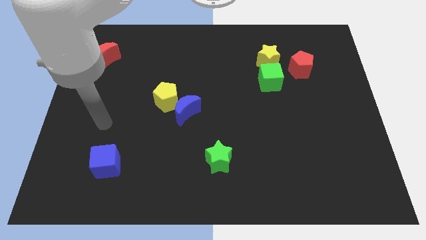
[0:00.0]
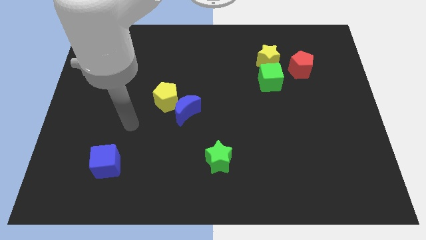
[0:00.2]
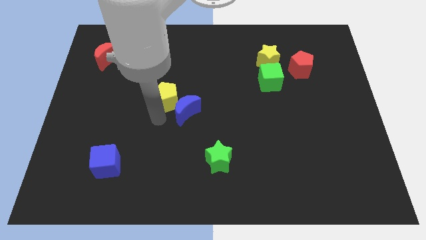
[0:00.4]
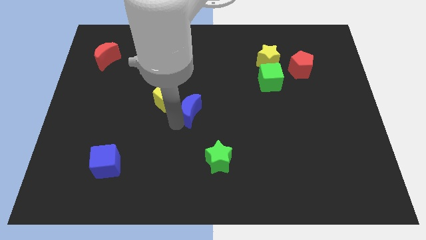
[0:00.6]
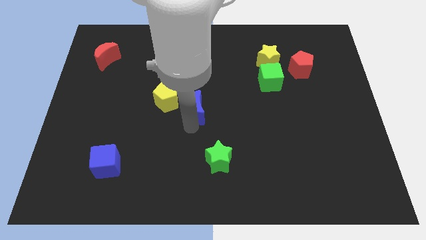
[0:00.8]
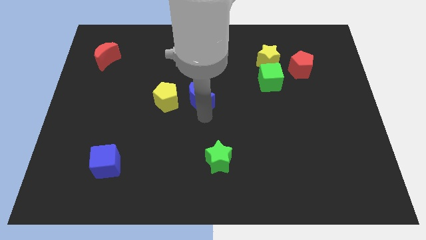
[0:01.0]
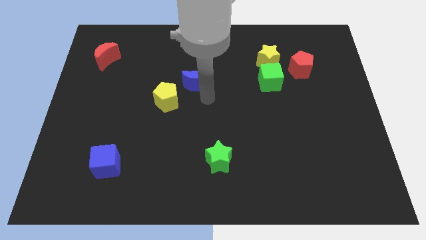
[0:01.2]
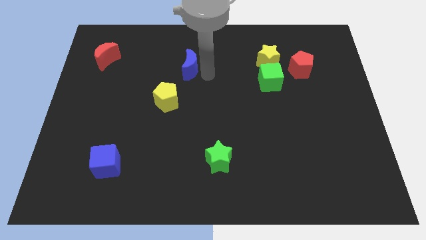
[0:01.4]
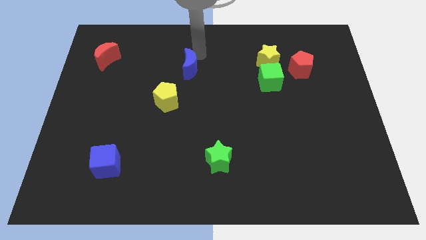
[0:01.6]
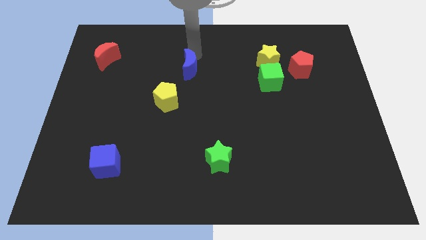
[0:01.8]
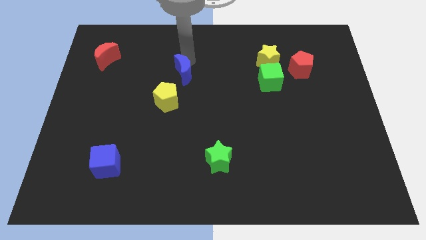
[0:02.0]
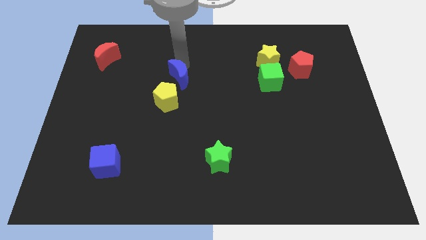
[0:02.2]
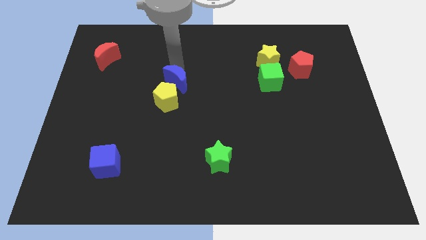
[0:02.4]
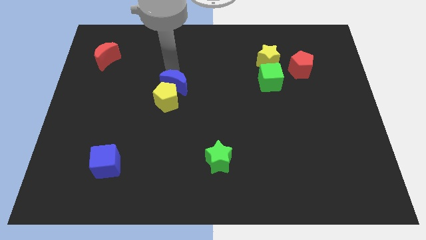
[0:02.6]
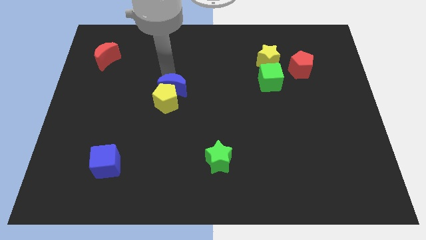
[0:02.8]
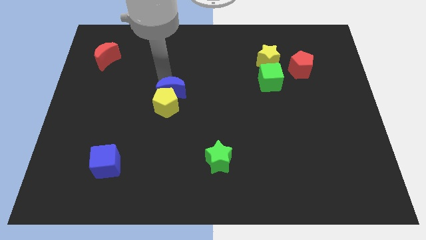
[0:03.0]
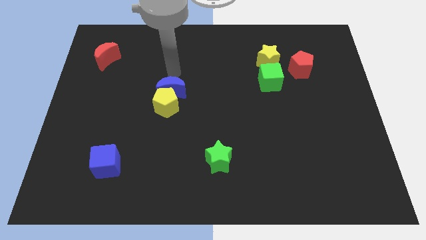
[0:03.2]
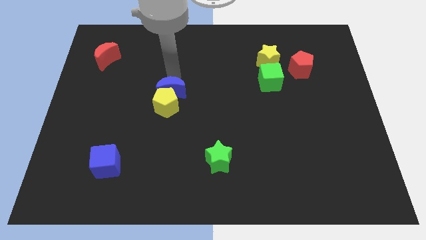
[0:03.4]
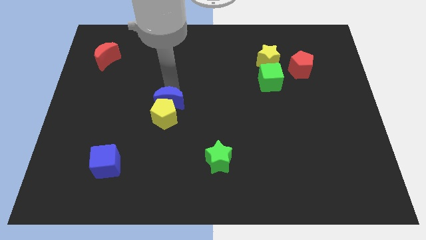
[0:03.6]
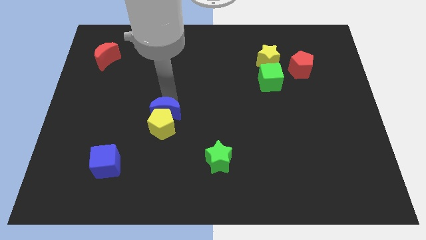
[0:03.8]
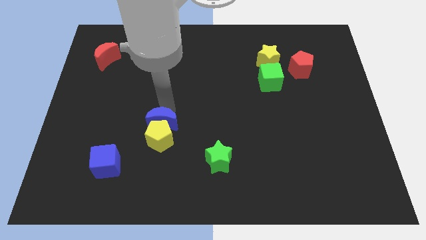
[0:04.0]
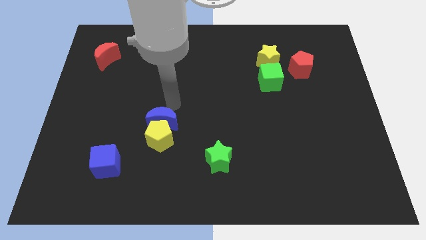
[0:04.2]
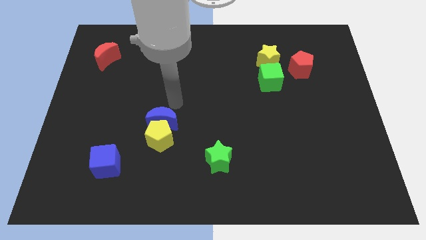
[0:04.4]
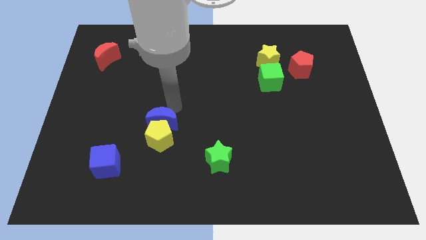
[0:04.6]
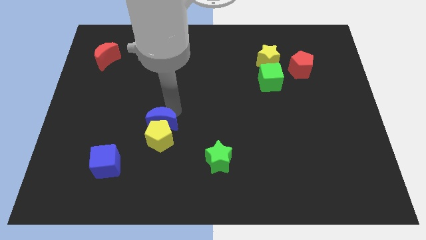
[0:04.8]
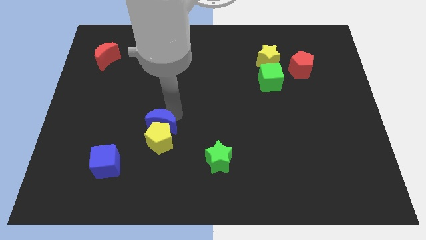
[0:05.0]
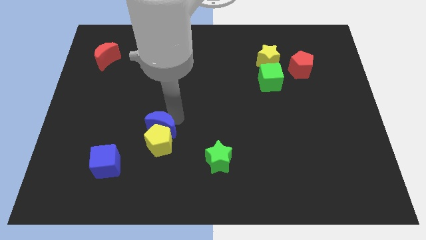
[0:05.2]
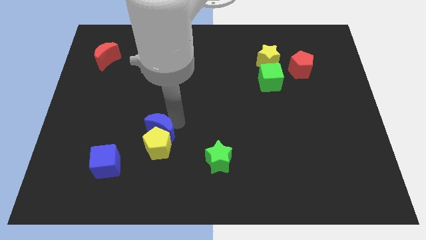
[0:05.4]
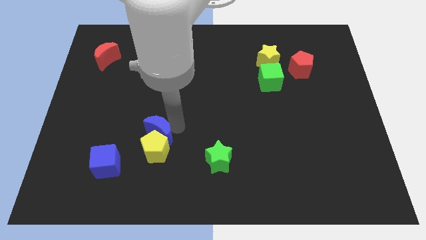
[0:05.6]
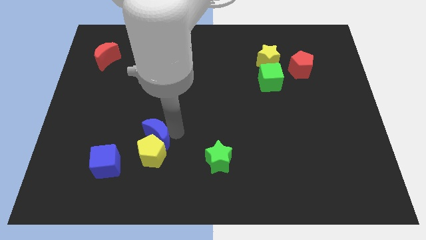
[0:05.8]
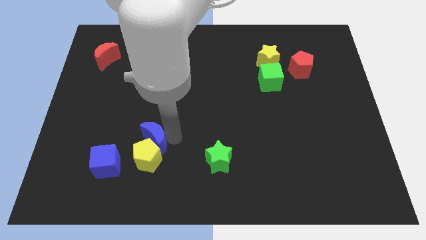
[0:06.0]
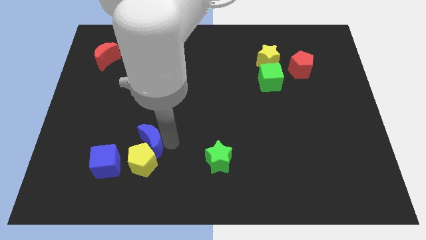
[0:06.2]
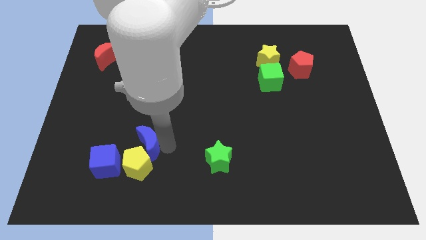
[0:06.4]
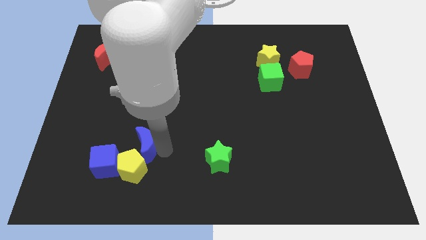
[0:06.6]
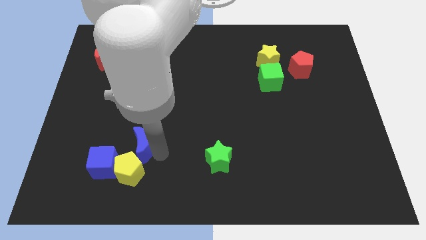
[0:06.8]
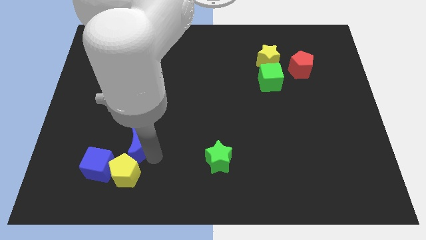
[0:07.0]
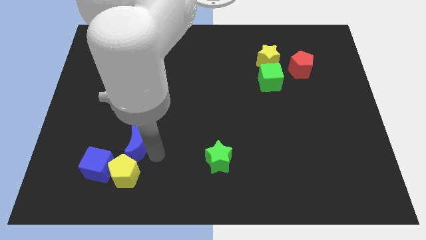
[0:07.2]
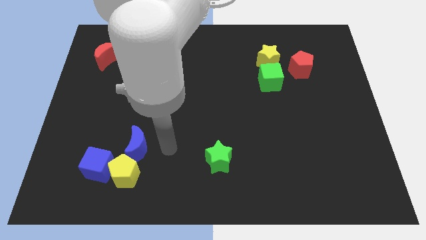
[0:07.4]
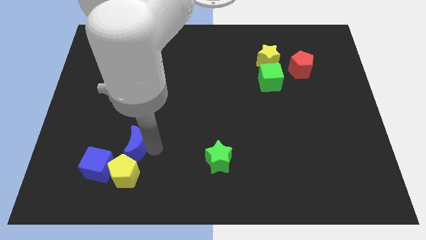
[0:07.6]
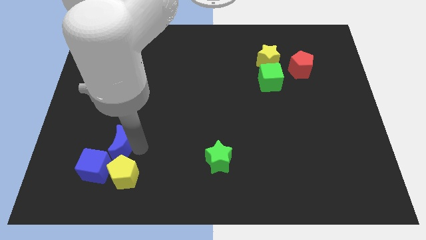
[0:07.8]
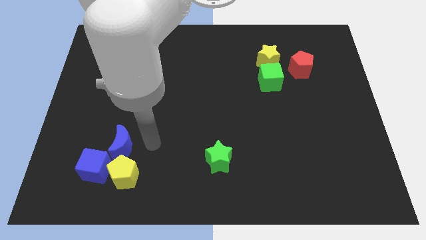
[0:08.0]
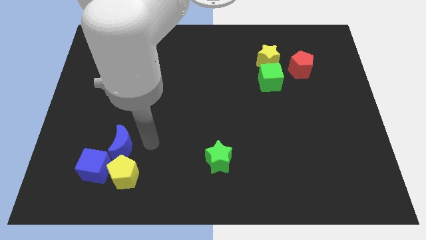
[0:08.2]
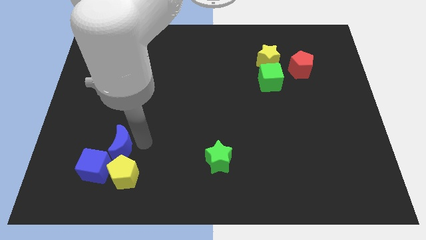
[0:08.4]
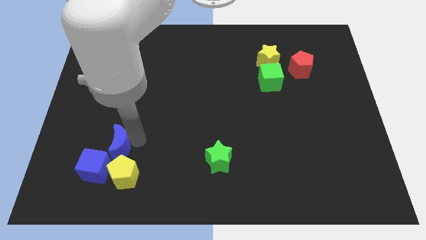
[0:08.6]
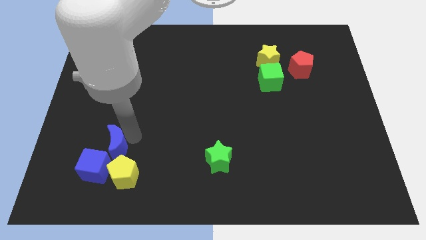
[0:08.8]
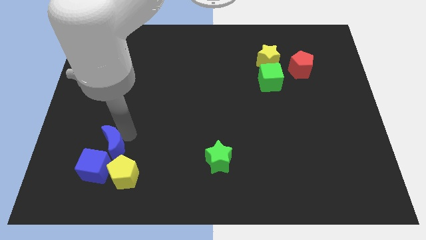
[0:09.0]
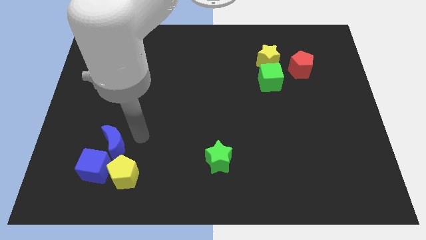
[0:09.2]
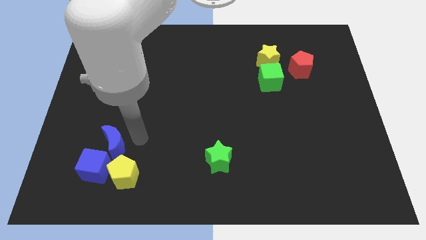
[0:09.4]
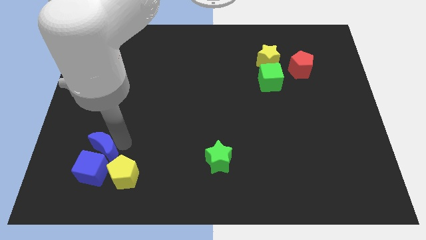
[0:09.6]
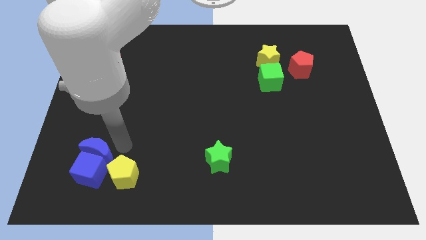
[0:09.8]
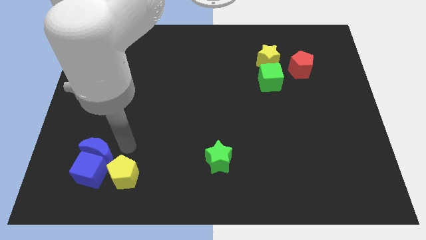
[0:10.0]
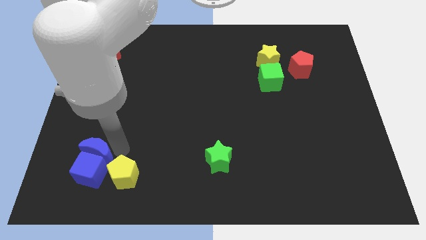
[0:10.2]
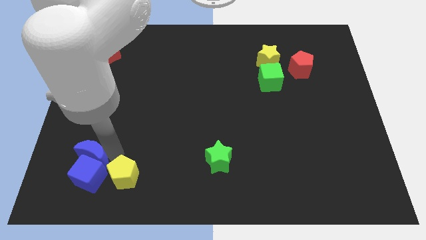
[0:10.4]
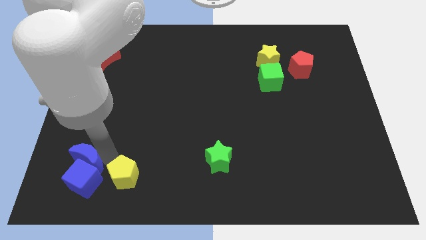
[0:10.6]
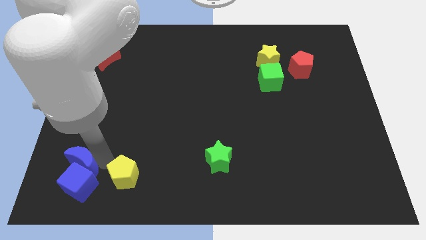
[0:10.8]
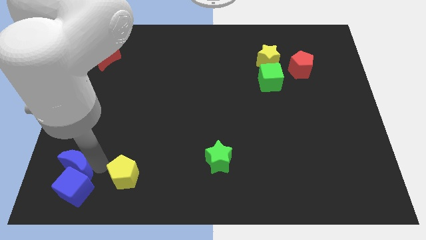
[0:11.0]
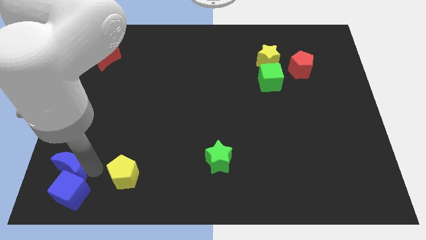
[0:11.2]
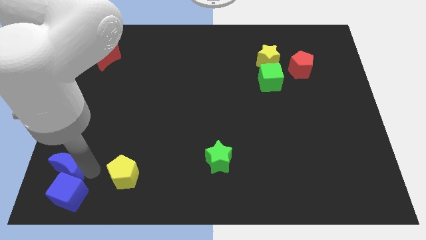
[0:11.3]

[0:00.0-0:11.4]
slide the blue moon to the bottom left corner

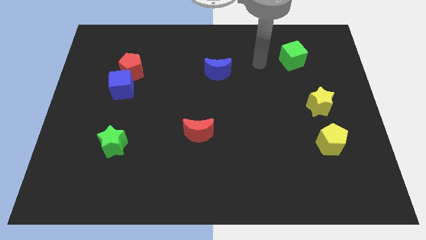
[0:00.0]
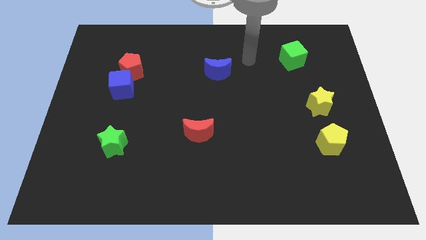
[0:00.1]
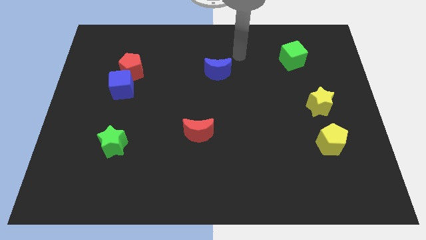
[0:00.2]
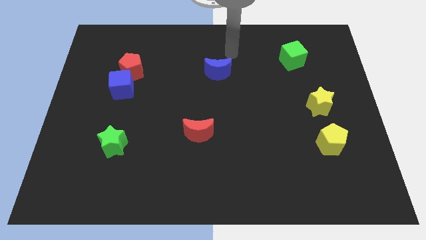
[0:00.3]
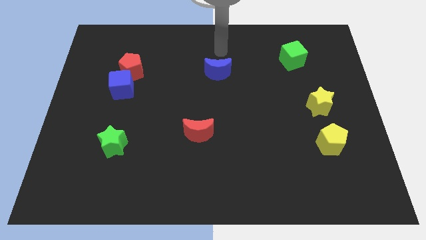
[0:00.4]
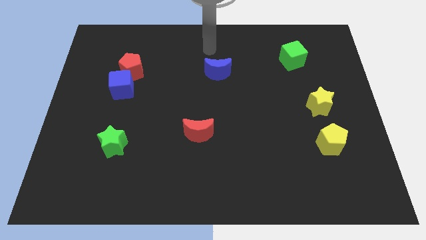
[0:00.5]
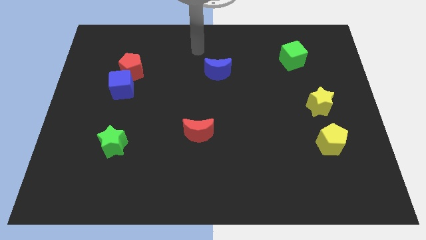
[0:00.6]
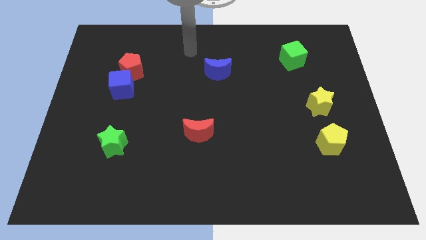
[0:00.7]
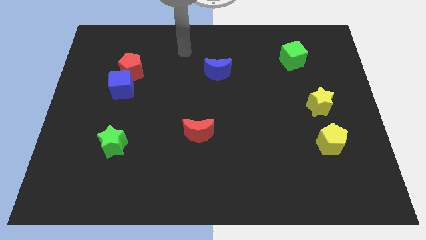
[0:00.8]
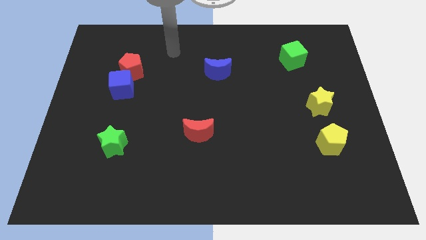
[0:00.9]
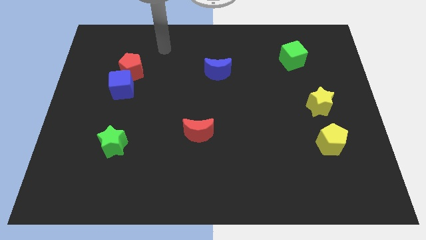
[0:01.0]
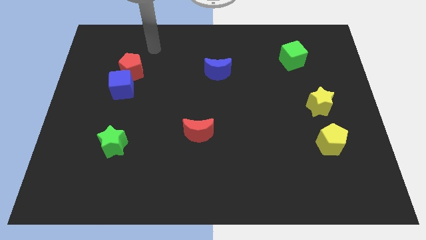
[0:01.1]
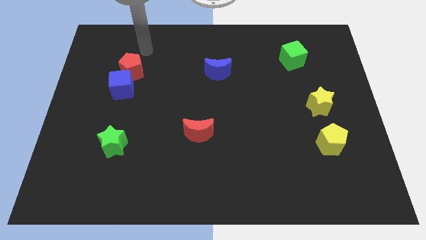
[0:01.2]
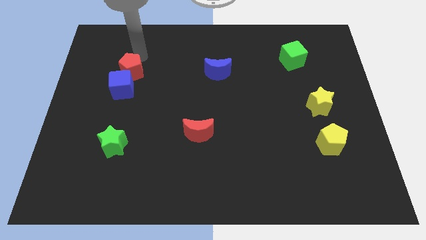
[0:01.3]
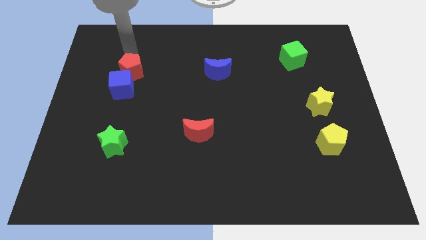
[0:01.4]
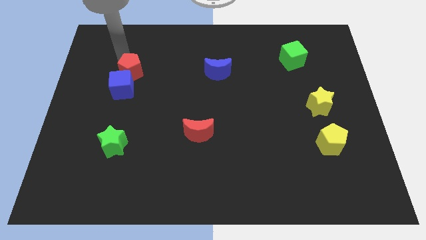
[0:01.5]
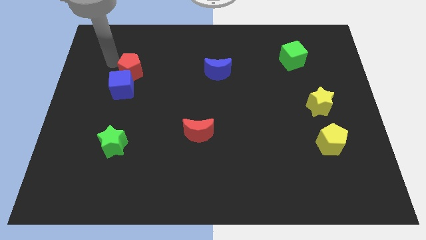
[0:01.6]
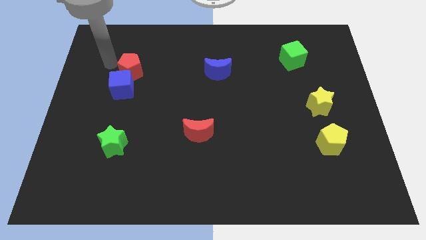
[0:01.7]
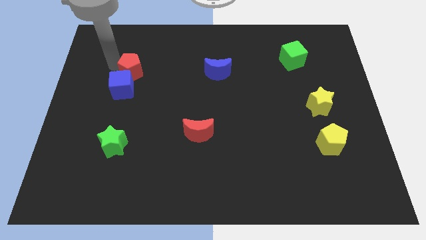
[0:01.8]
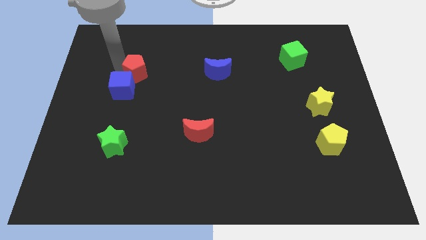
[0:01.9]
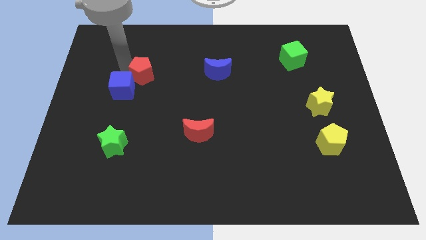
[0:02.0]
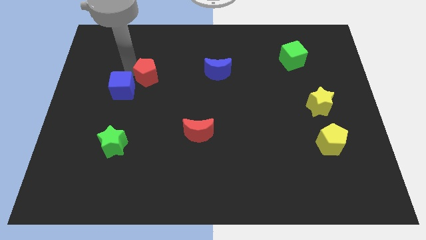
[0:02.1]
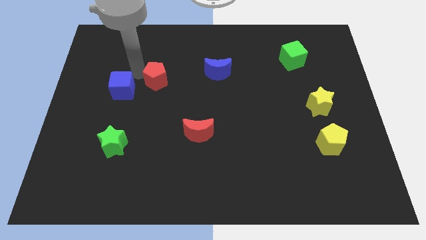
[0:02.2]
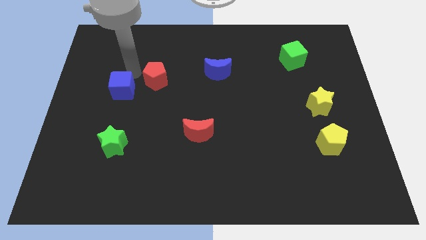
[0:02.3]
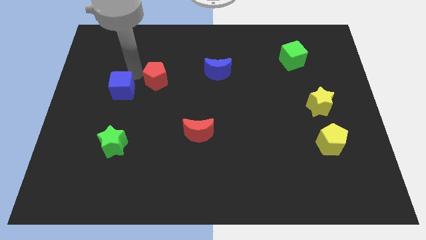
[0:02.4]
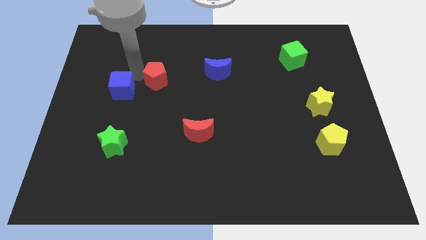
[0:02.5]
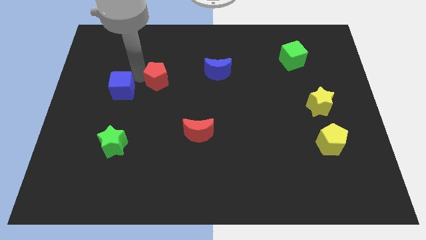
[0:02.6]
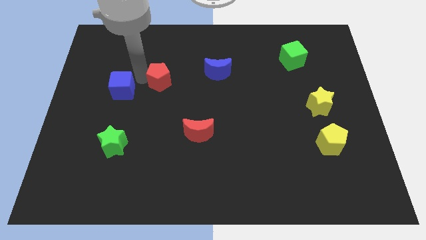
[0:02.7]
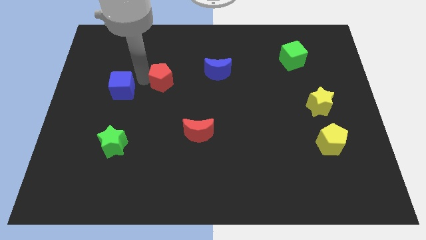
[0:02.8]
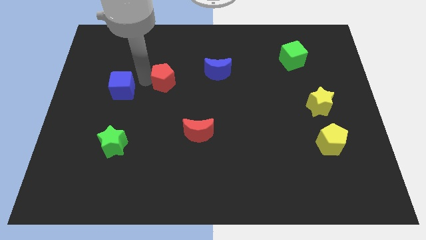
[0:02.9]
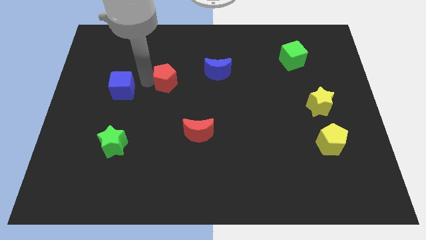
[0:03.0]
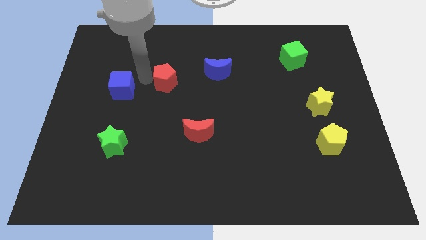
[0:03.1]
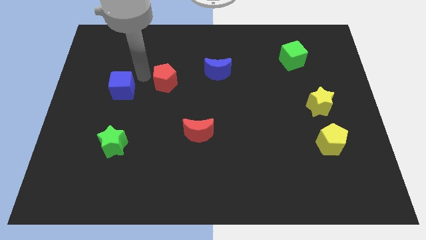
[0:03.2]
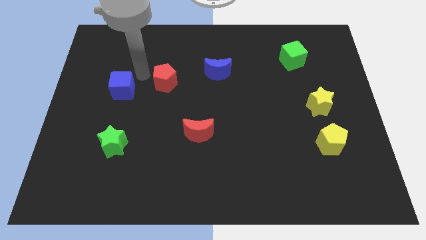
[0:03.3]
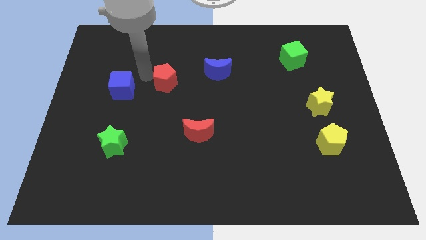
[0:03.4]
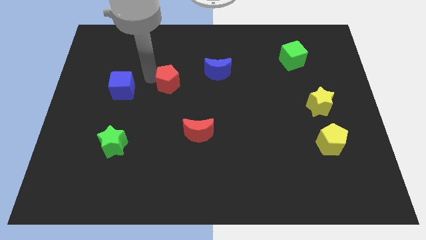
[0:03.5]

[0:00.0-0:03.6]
slide the red pentagon to the middle of the board
